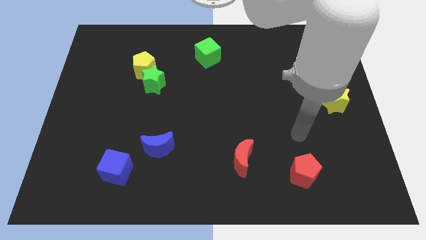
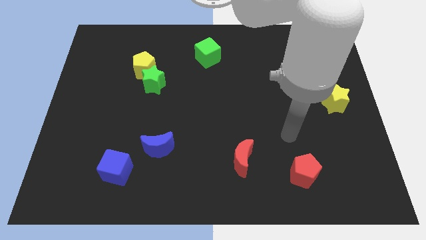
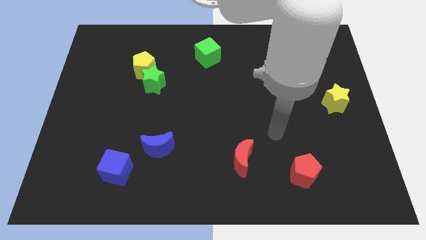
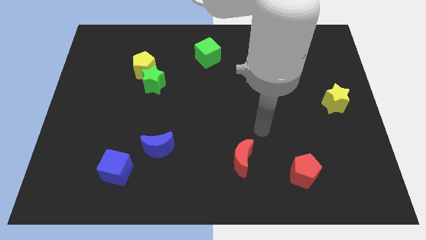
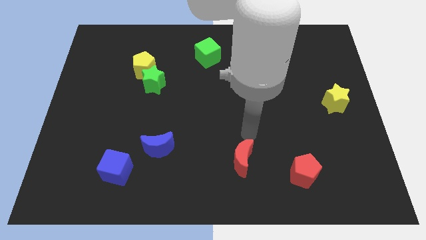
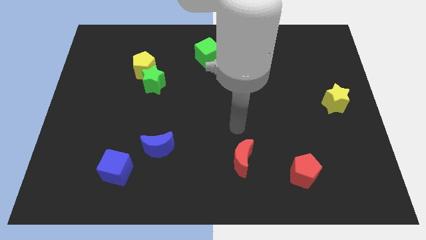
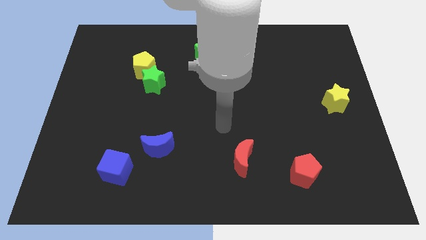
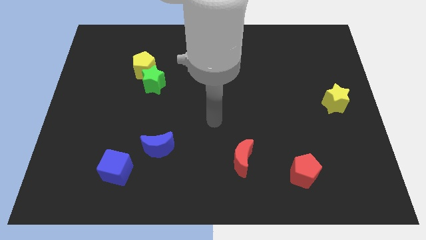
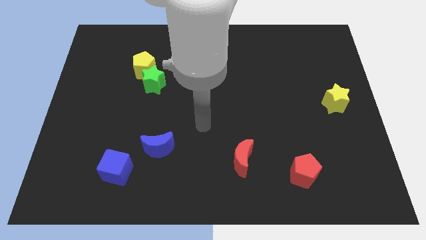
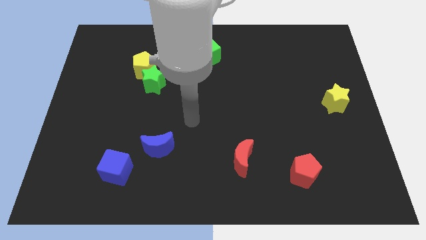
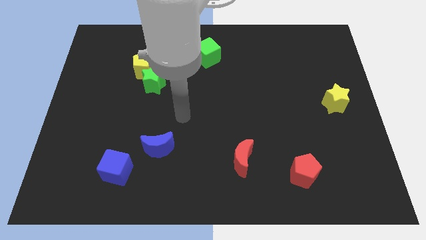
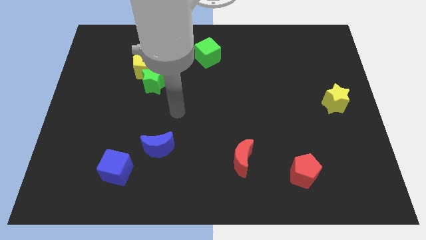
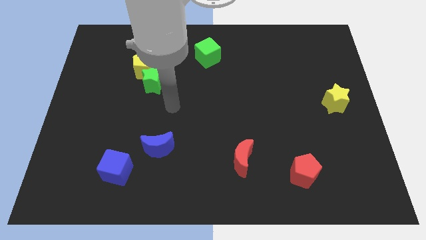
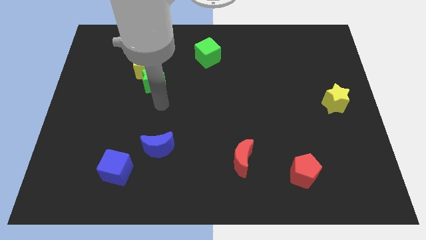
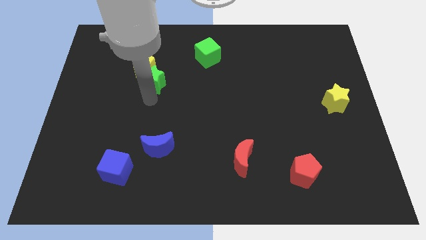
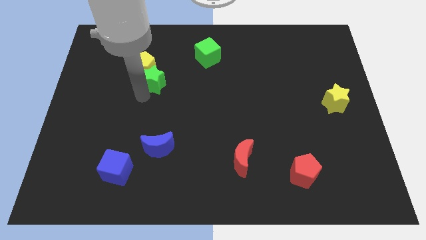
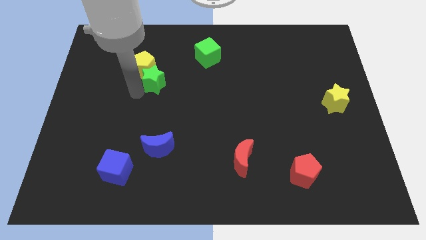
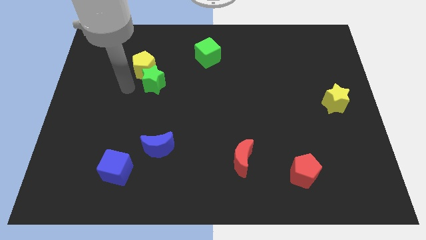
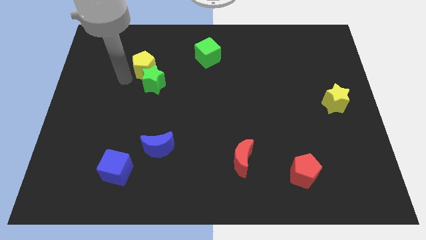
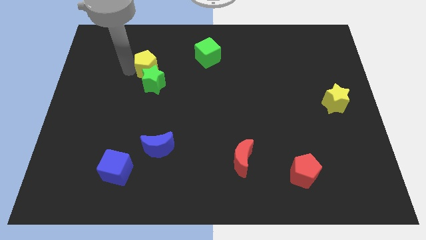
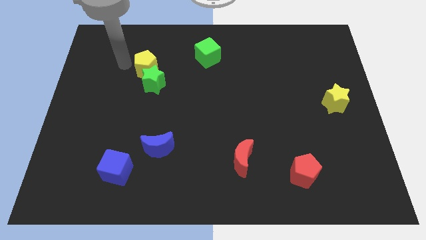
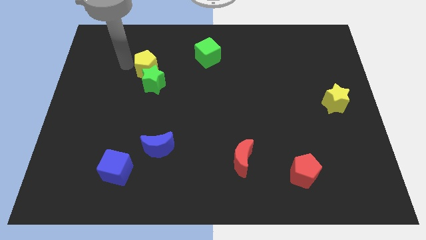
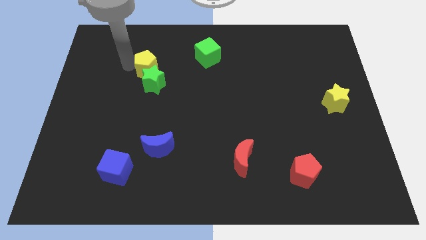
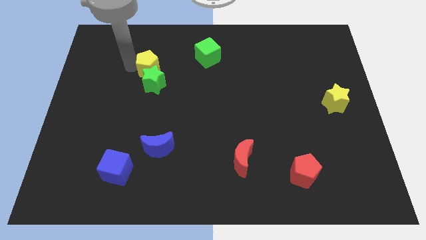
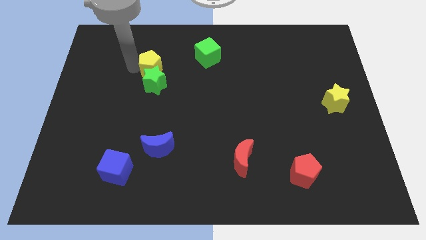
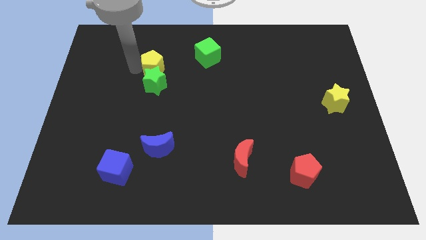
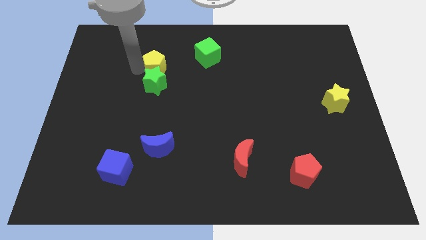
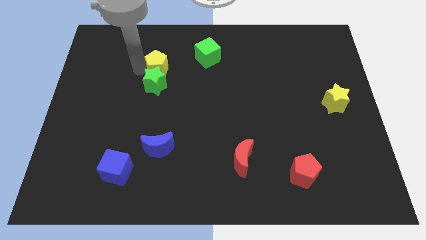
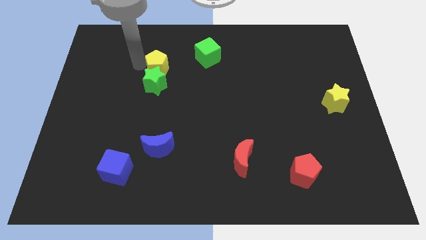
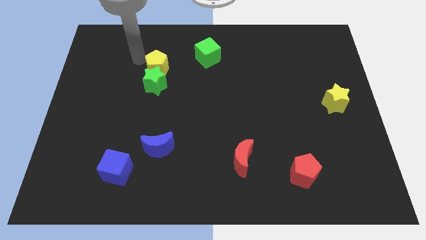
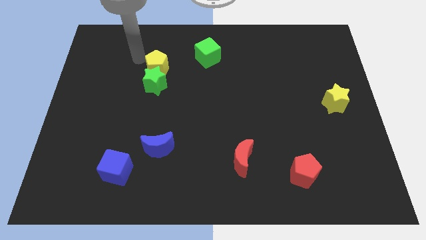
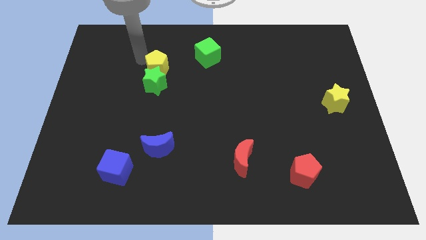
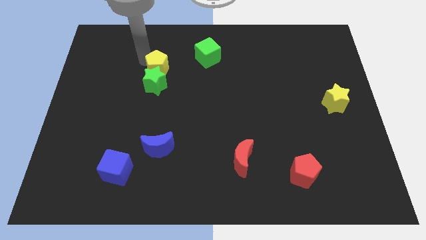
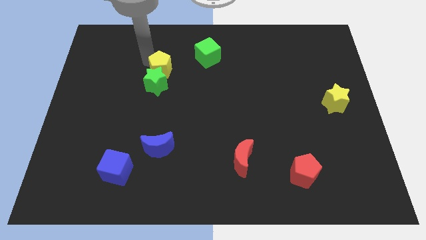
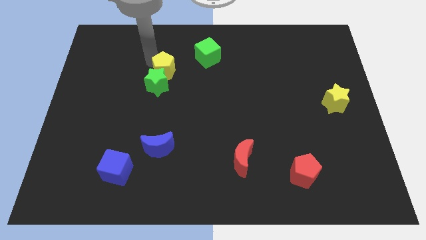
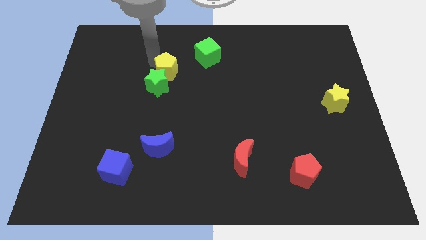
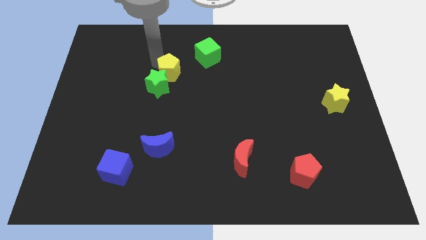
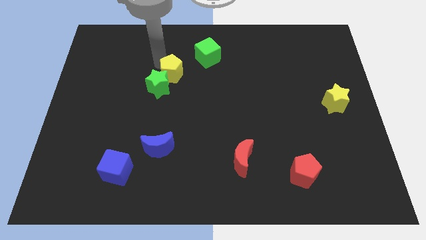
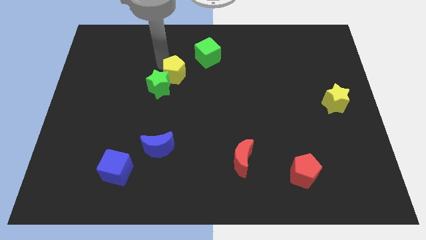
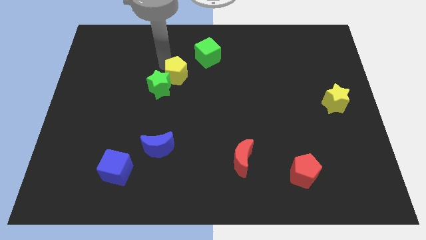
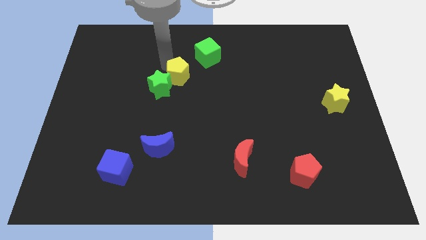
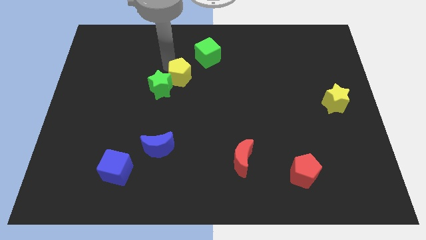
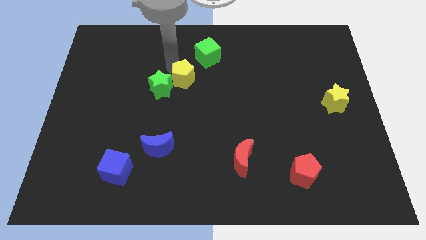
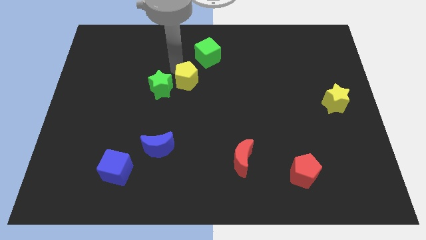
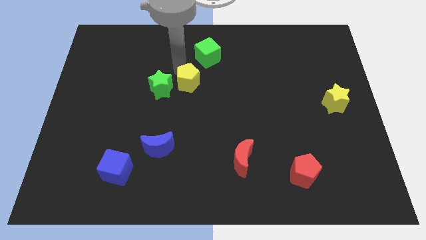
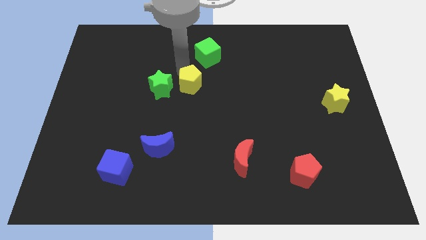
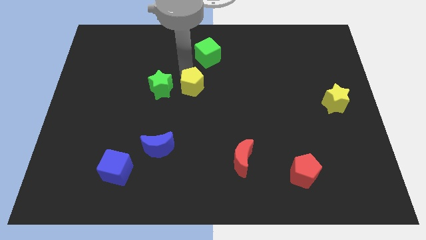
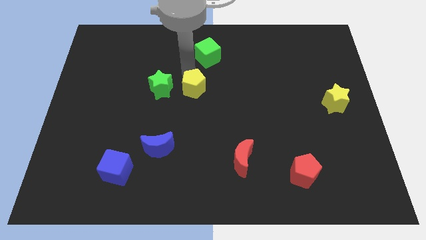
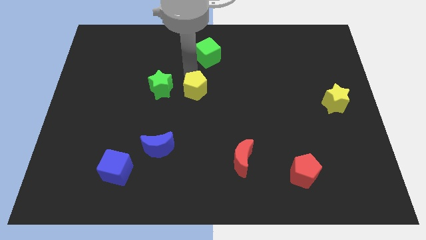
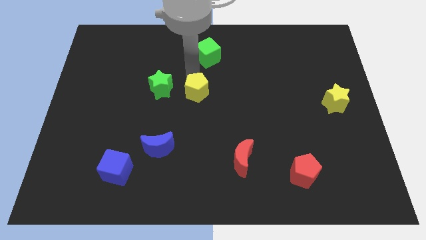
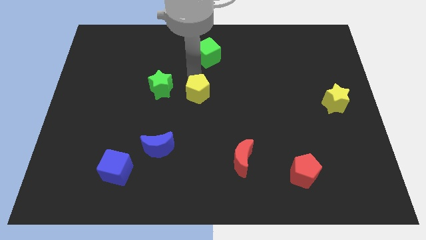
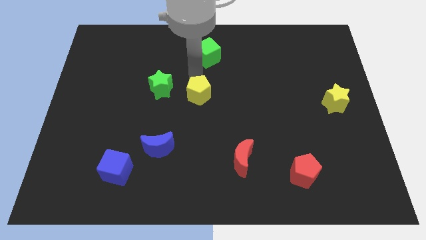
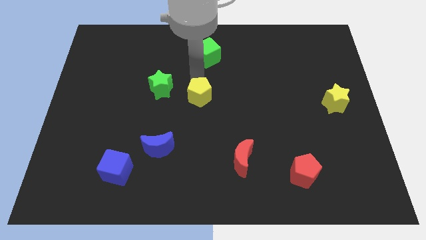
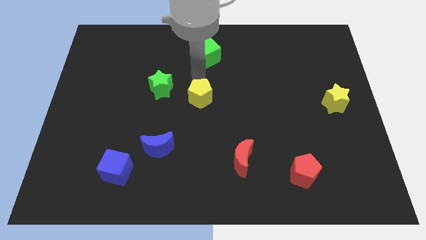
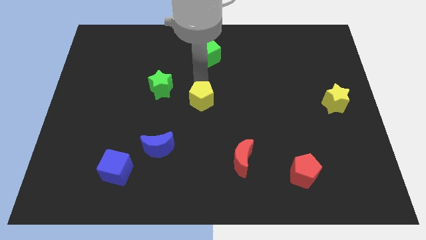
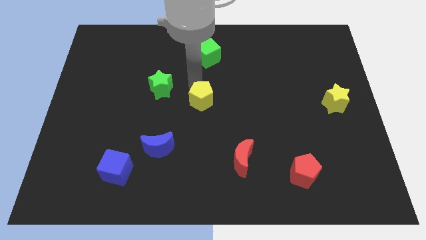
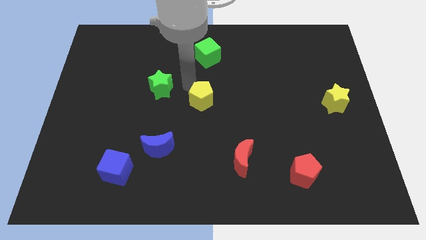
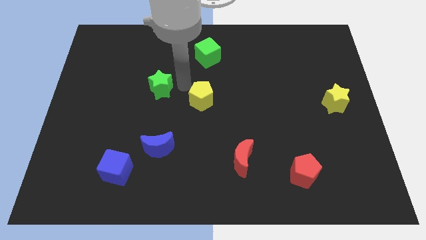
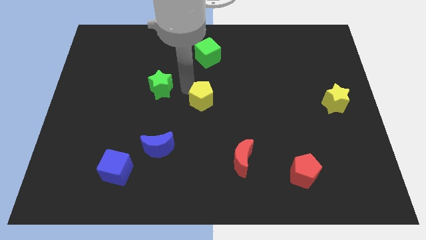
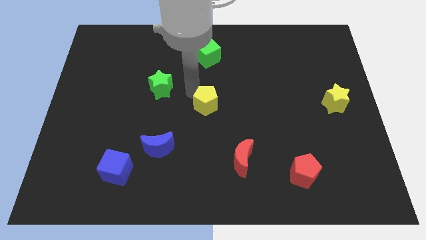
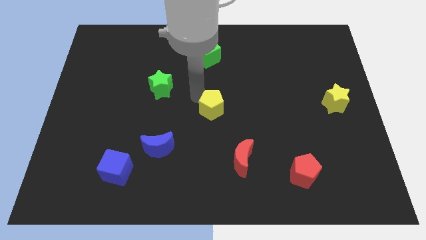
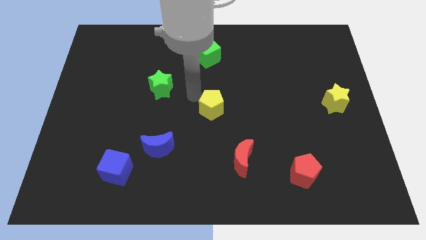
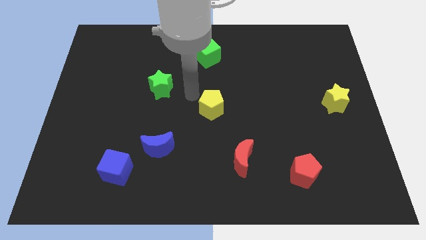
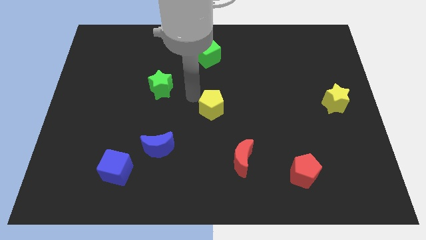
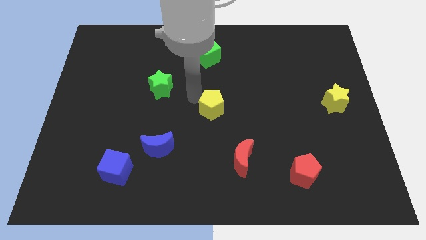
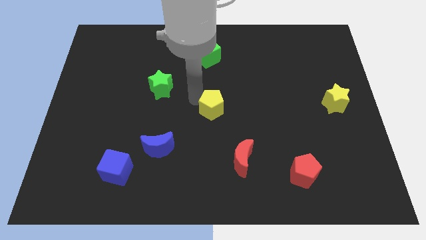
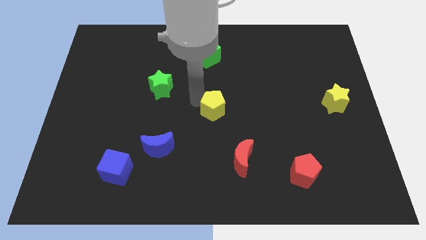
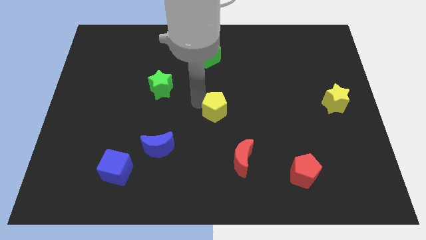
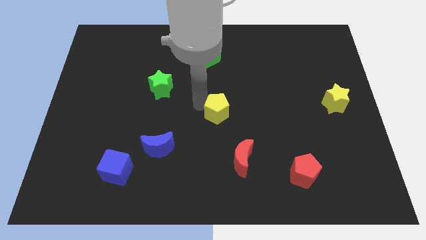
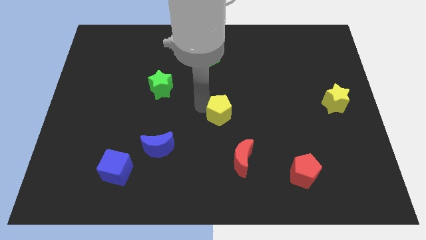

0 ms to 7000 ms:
put the yellow pentagon to the top of the red moon
